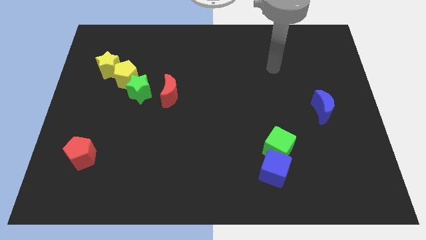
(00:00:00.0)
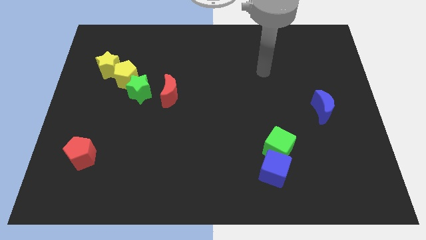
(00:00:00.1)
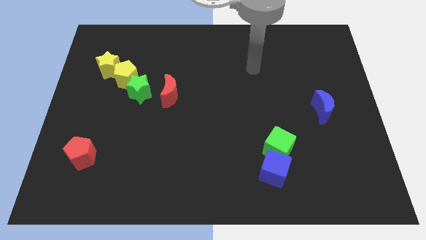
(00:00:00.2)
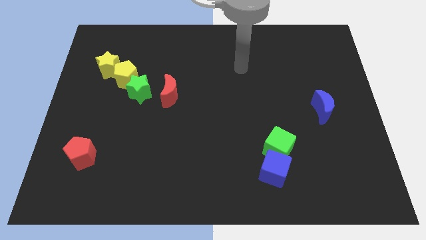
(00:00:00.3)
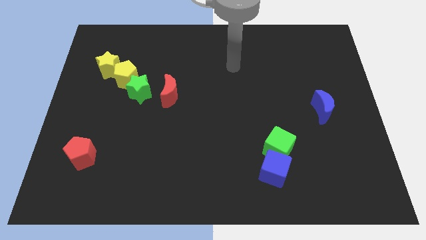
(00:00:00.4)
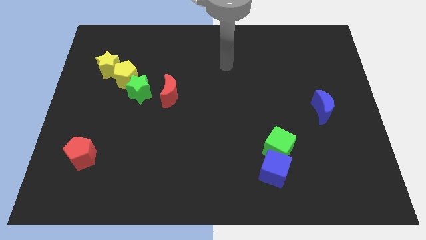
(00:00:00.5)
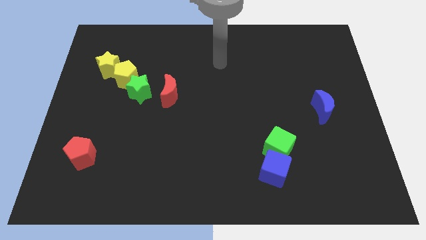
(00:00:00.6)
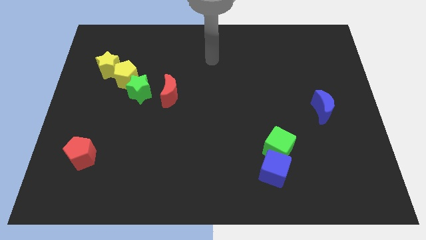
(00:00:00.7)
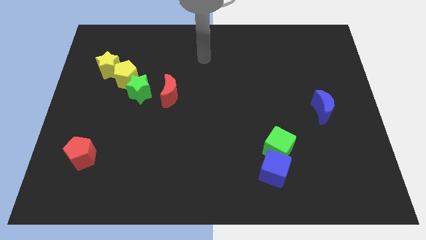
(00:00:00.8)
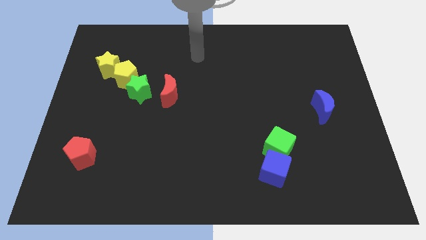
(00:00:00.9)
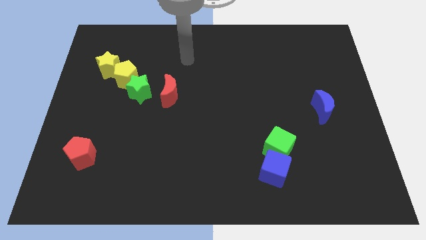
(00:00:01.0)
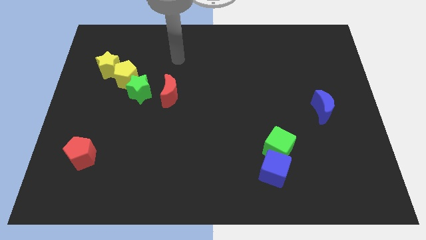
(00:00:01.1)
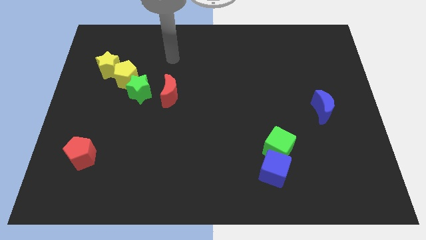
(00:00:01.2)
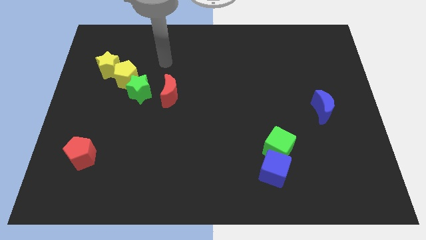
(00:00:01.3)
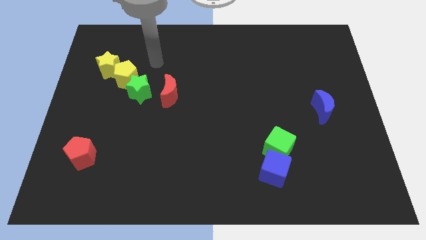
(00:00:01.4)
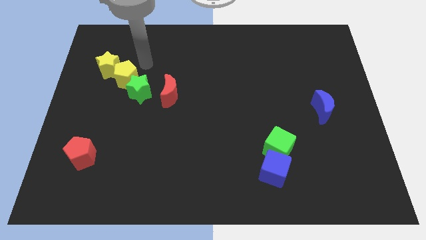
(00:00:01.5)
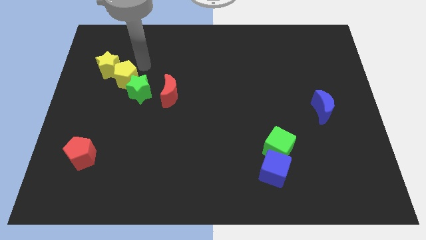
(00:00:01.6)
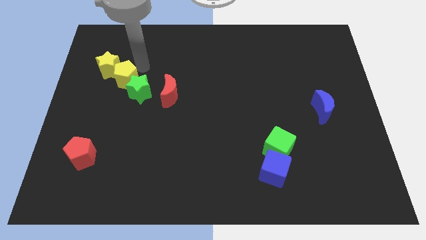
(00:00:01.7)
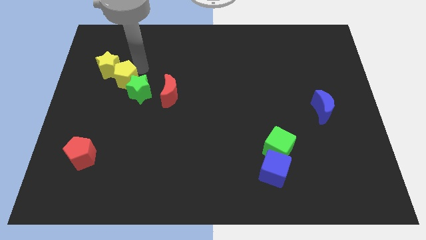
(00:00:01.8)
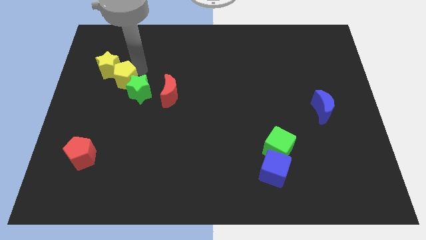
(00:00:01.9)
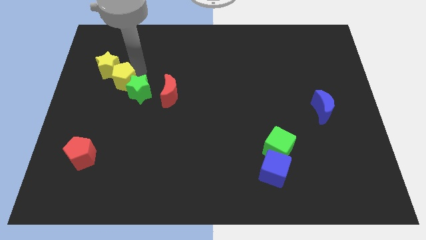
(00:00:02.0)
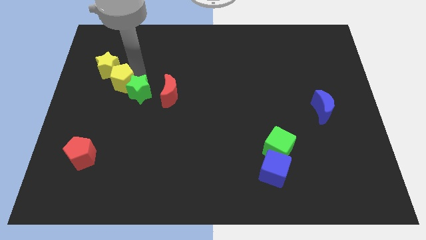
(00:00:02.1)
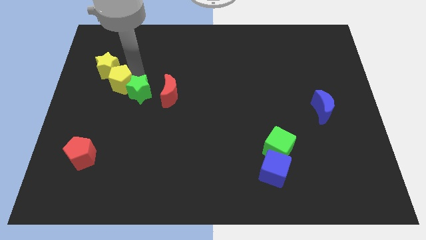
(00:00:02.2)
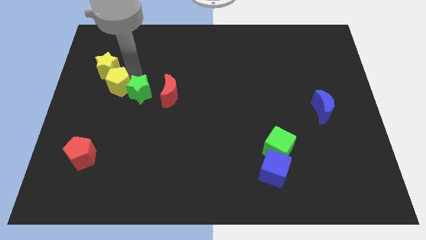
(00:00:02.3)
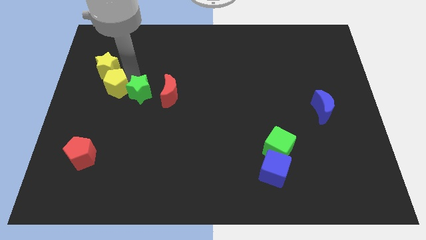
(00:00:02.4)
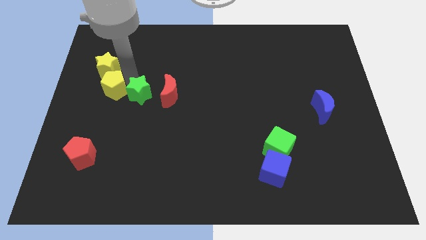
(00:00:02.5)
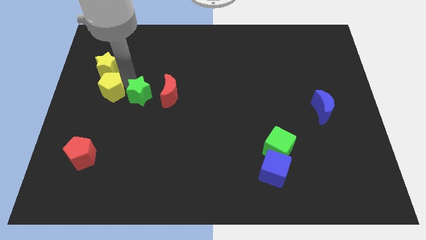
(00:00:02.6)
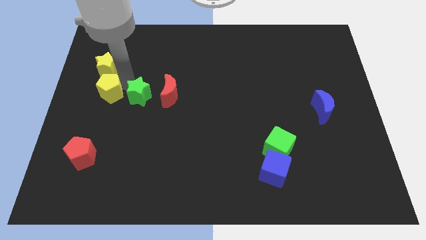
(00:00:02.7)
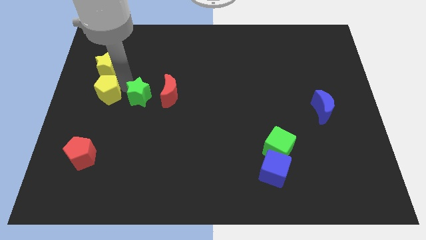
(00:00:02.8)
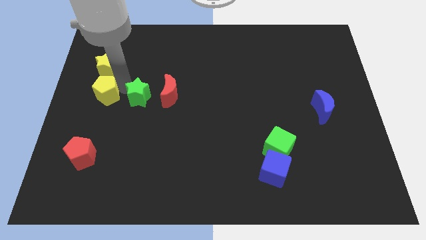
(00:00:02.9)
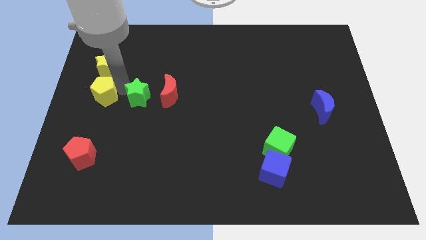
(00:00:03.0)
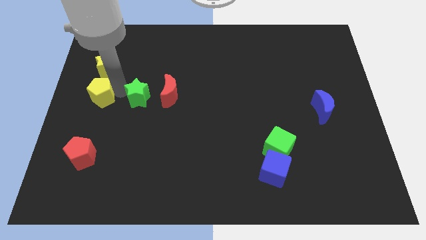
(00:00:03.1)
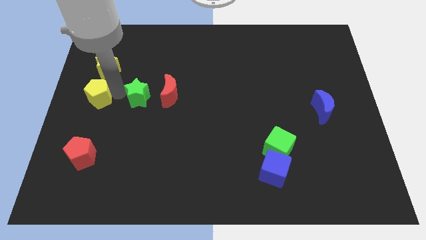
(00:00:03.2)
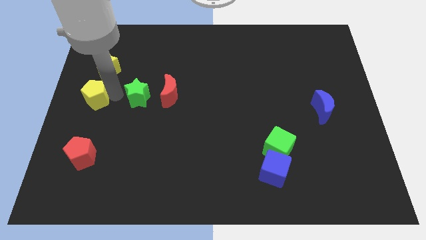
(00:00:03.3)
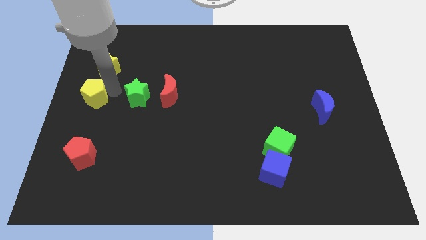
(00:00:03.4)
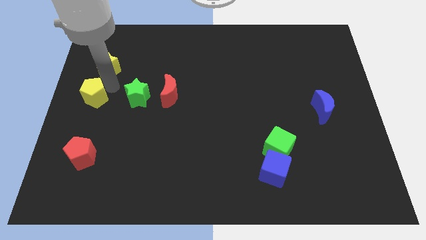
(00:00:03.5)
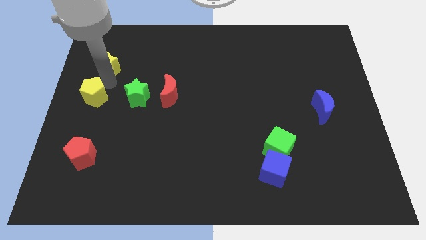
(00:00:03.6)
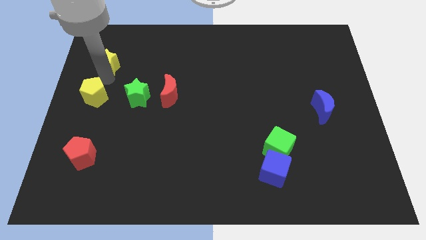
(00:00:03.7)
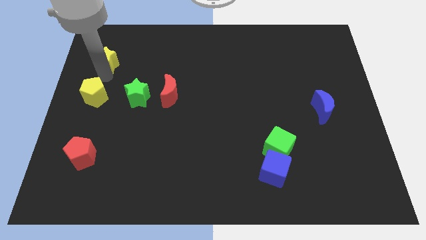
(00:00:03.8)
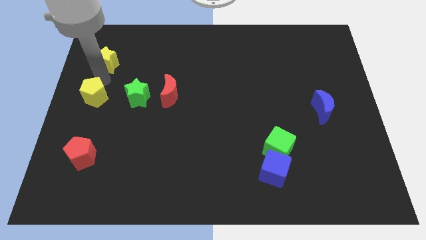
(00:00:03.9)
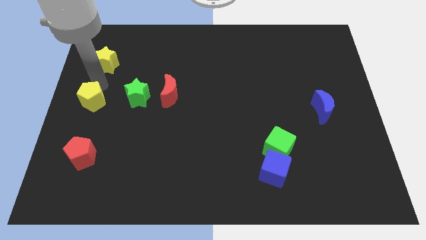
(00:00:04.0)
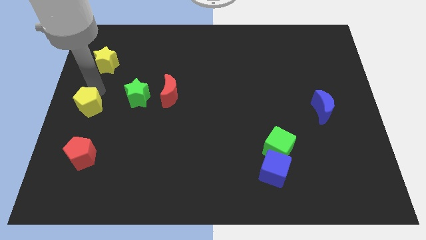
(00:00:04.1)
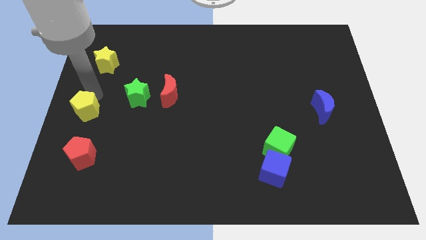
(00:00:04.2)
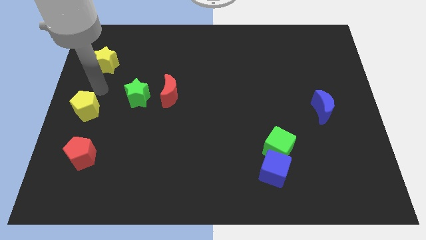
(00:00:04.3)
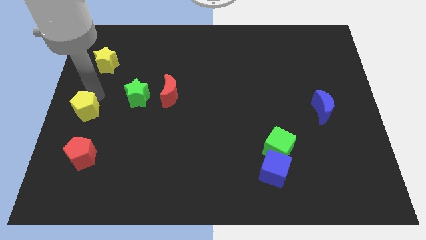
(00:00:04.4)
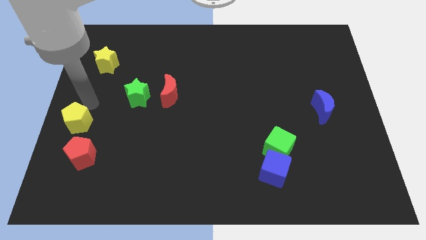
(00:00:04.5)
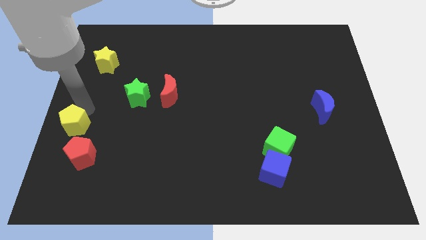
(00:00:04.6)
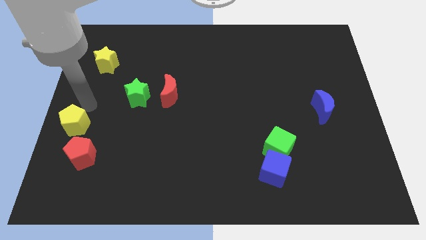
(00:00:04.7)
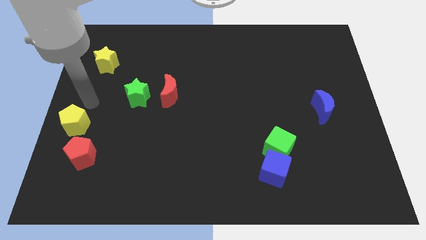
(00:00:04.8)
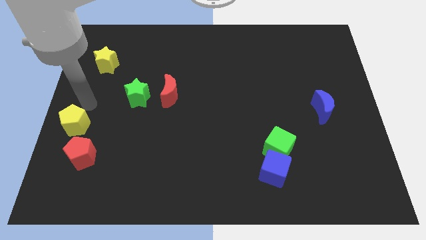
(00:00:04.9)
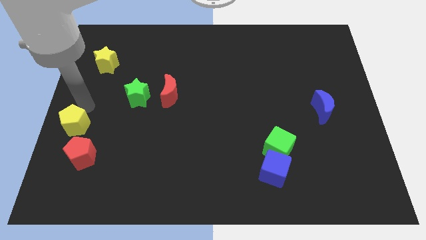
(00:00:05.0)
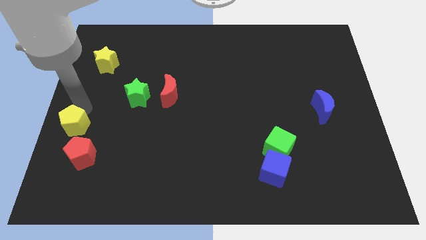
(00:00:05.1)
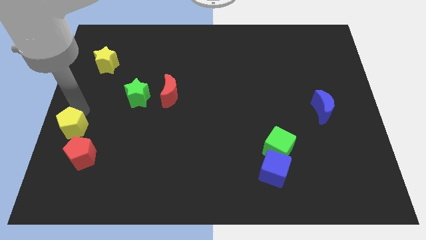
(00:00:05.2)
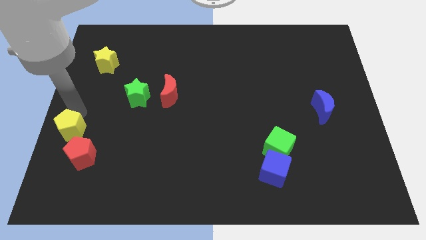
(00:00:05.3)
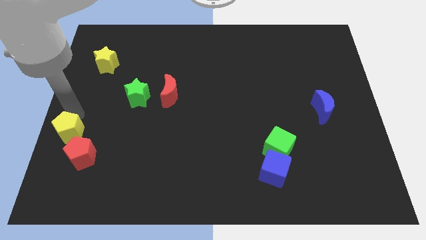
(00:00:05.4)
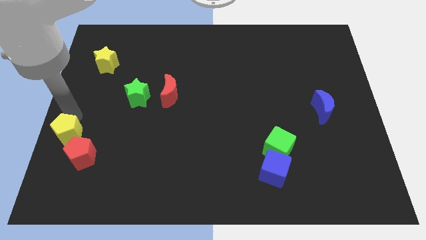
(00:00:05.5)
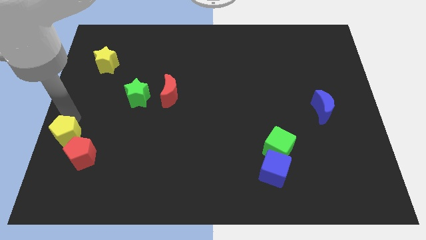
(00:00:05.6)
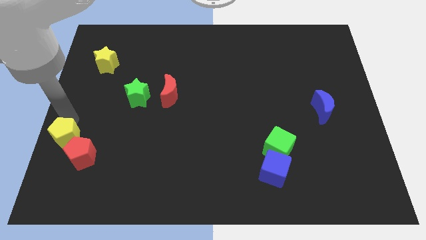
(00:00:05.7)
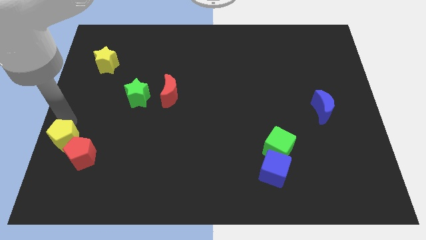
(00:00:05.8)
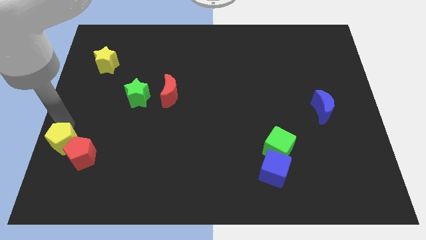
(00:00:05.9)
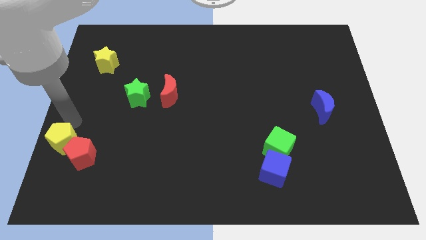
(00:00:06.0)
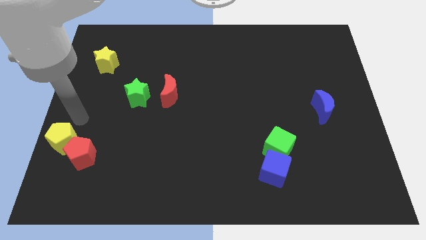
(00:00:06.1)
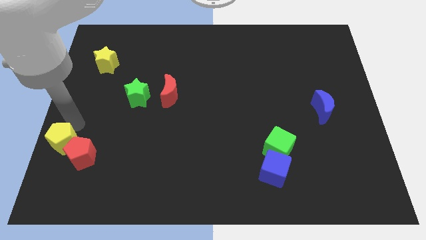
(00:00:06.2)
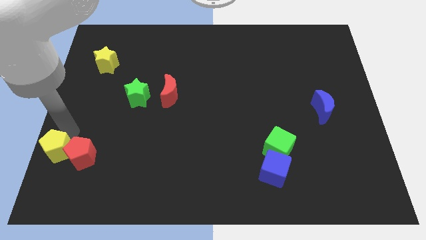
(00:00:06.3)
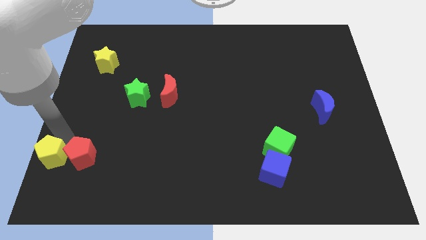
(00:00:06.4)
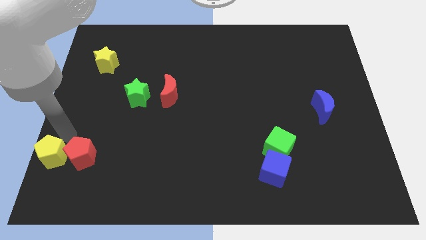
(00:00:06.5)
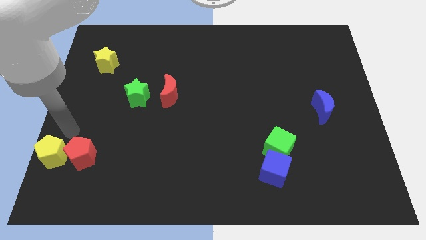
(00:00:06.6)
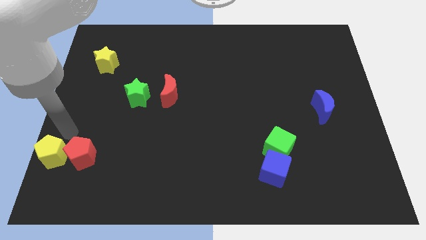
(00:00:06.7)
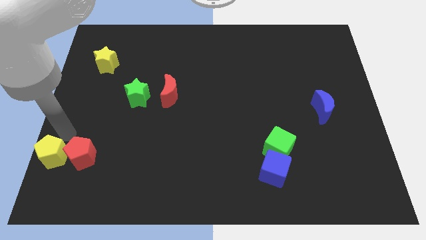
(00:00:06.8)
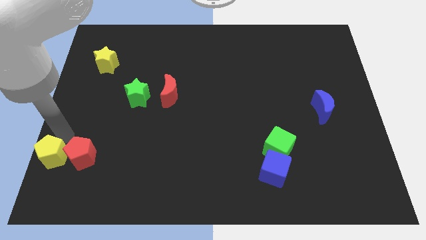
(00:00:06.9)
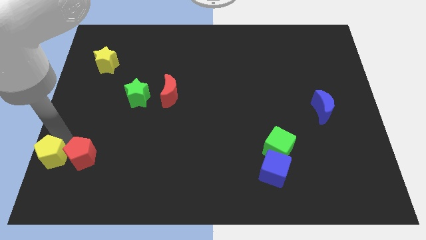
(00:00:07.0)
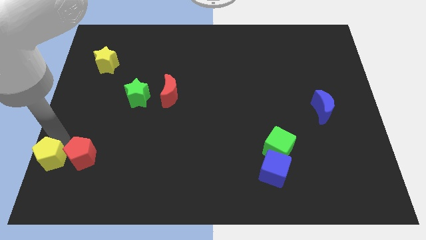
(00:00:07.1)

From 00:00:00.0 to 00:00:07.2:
move the yellow pentagon to the bottom left
